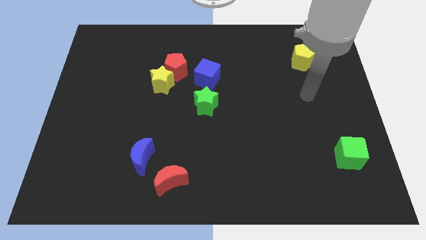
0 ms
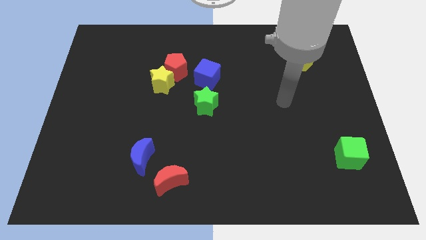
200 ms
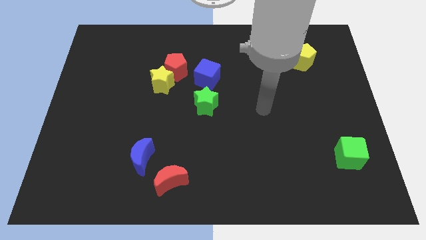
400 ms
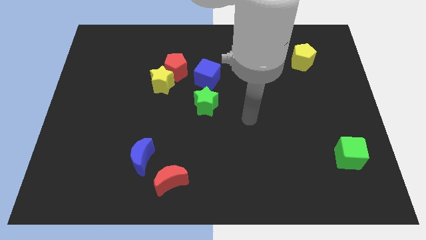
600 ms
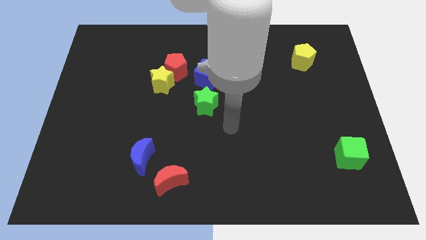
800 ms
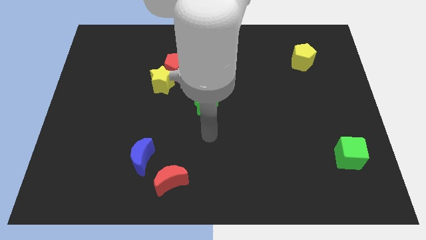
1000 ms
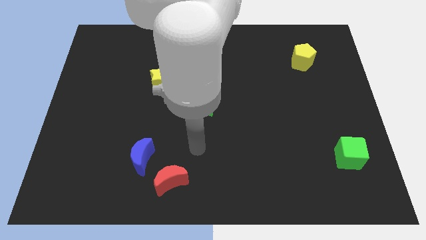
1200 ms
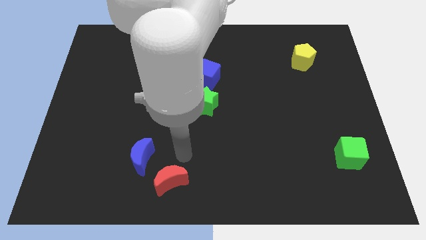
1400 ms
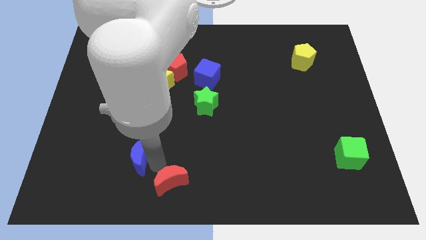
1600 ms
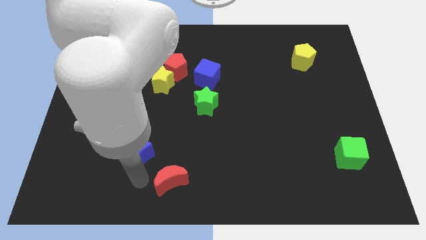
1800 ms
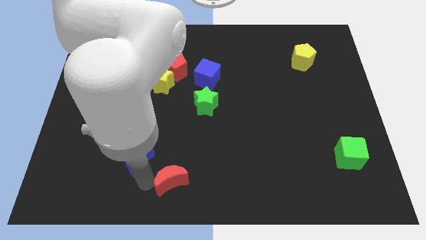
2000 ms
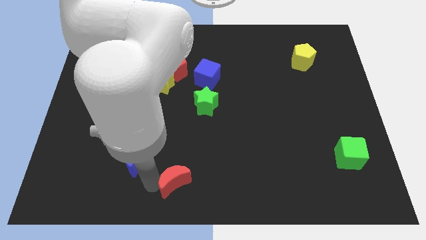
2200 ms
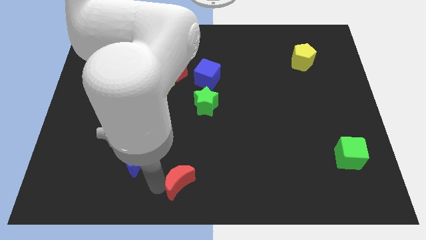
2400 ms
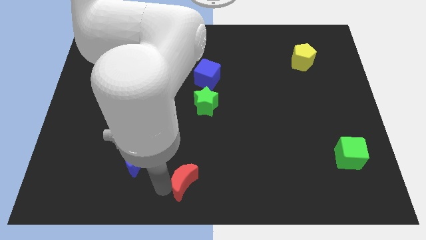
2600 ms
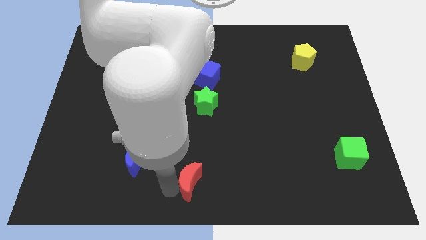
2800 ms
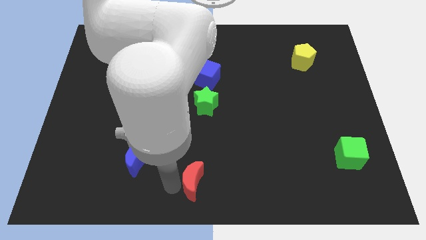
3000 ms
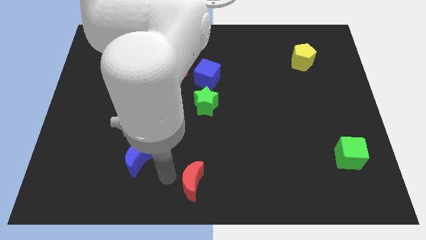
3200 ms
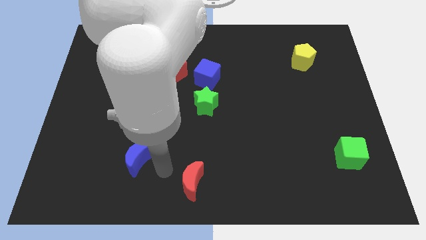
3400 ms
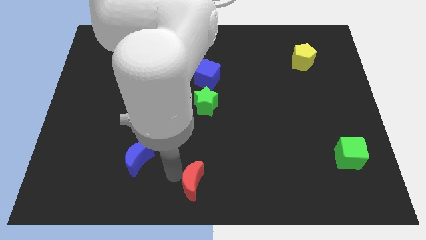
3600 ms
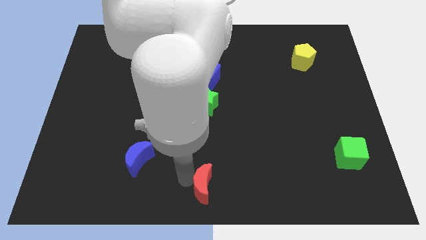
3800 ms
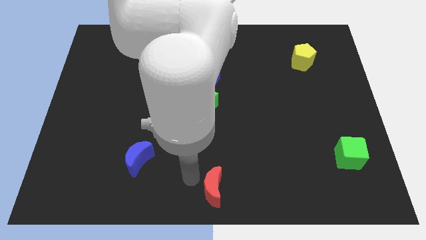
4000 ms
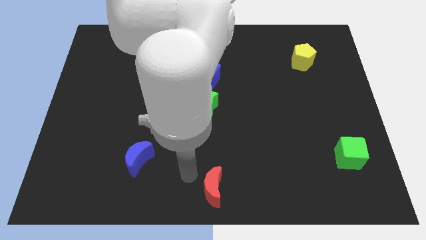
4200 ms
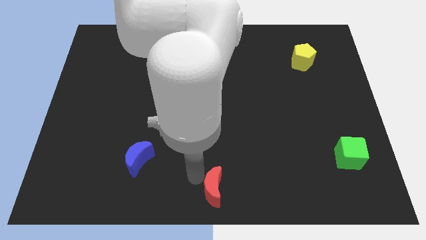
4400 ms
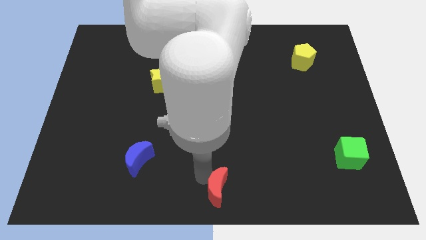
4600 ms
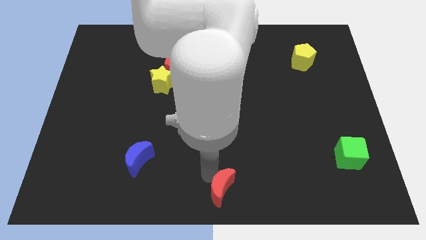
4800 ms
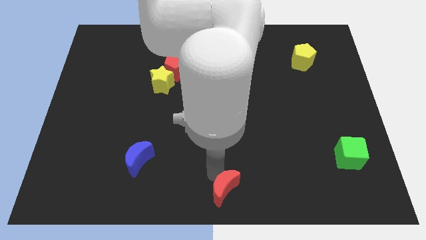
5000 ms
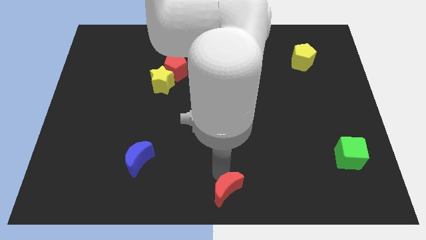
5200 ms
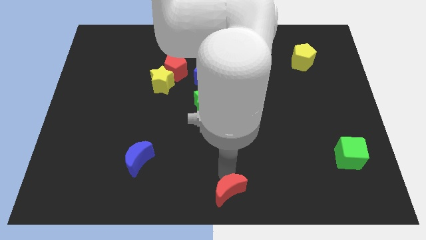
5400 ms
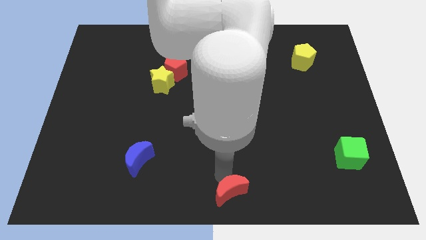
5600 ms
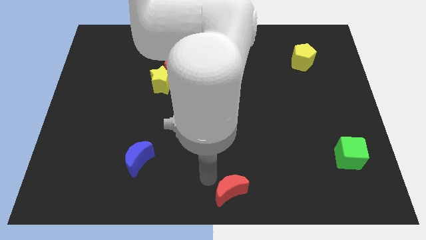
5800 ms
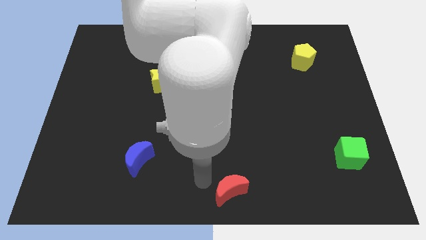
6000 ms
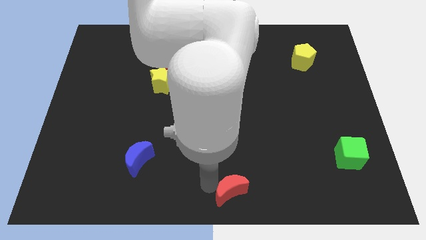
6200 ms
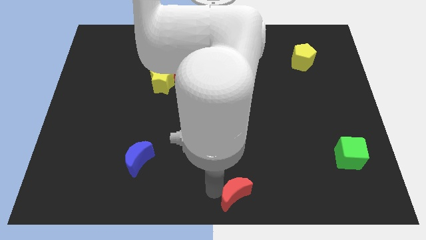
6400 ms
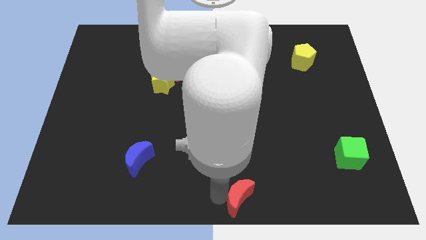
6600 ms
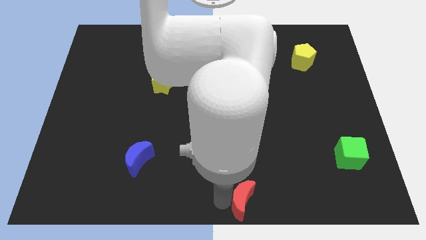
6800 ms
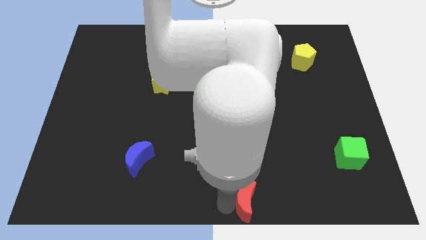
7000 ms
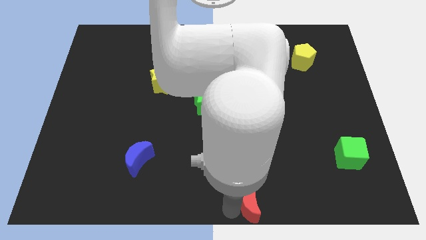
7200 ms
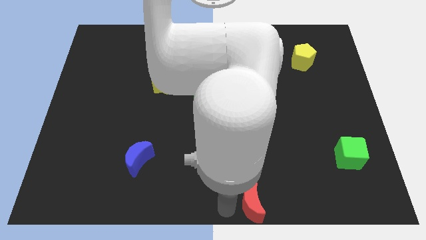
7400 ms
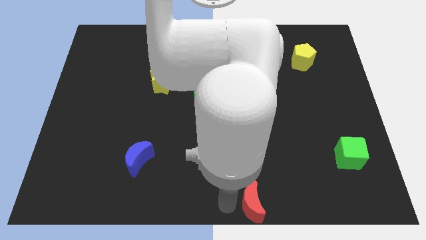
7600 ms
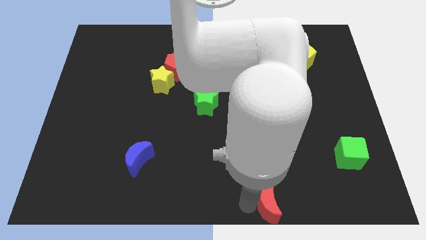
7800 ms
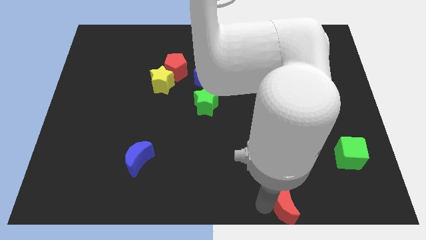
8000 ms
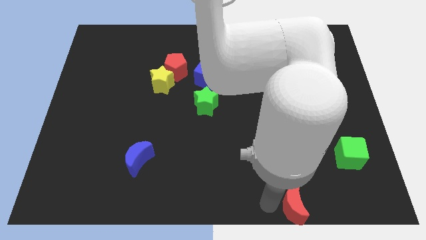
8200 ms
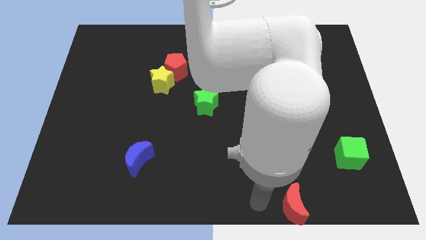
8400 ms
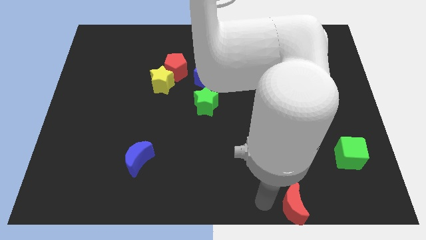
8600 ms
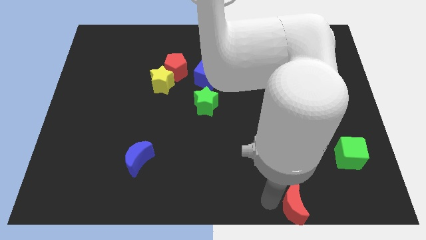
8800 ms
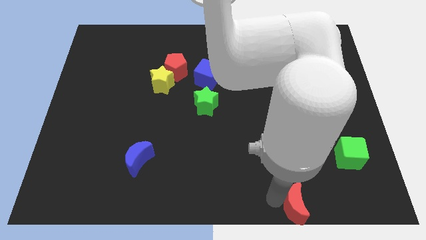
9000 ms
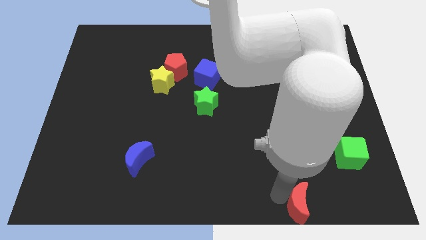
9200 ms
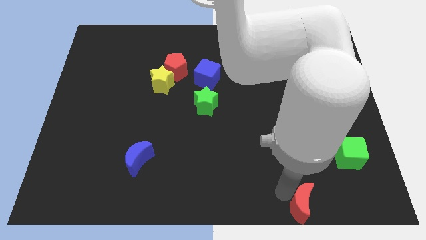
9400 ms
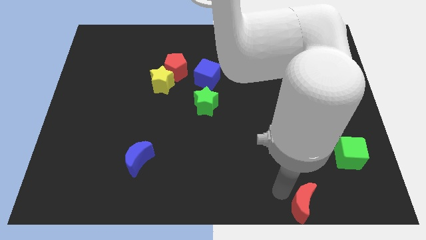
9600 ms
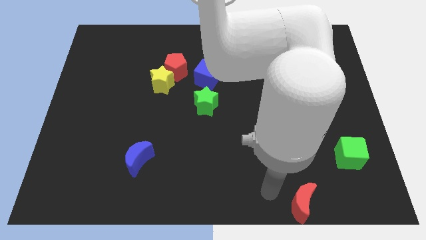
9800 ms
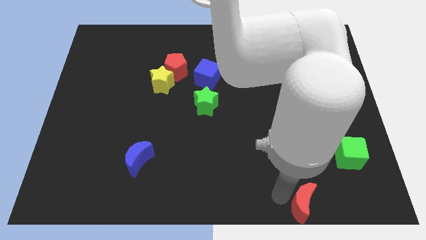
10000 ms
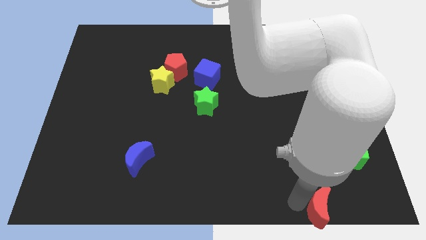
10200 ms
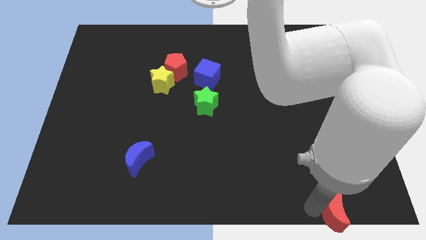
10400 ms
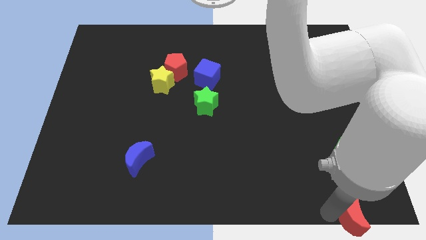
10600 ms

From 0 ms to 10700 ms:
slide the red moon to the bottom right of the board

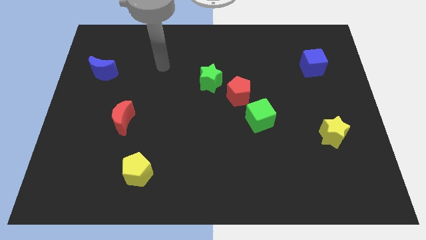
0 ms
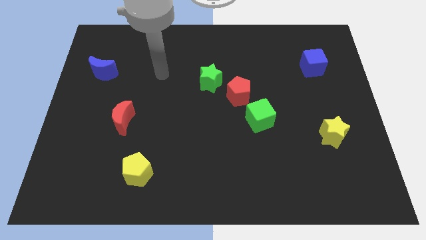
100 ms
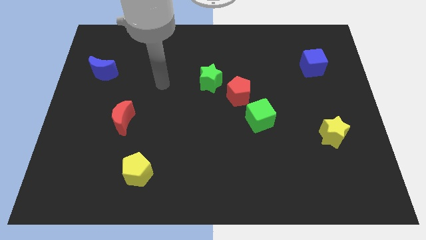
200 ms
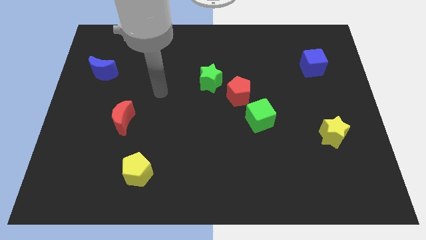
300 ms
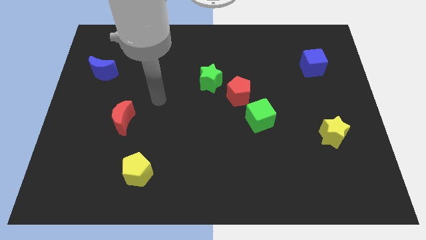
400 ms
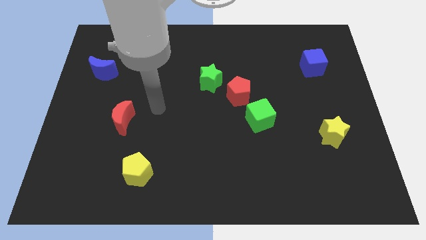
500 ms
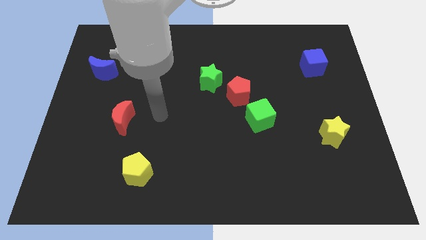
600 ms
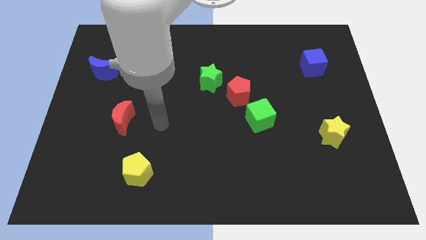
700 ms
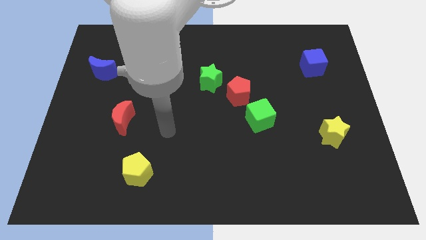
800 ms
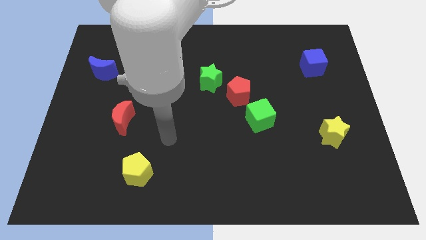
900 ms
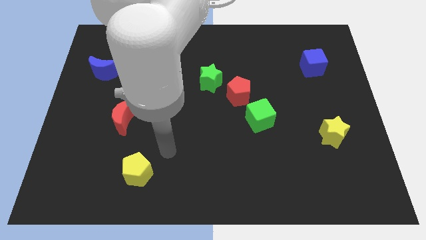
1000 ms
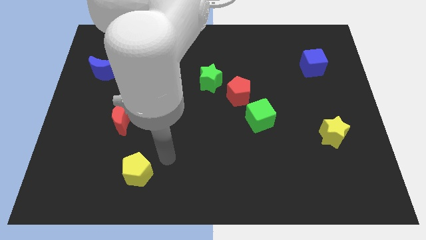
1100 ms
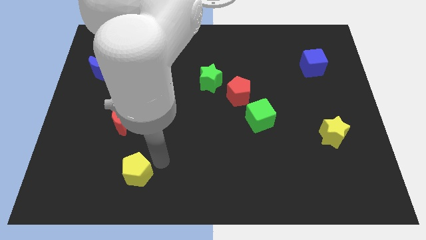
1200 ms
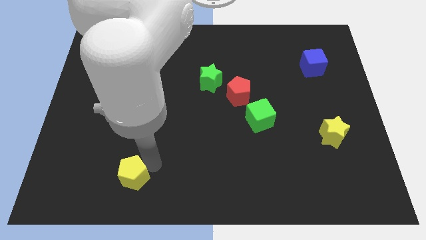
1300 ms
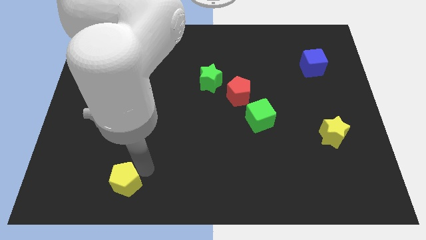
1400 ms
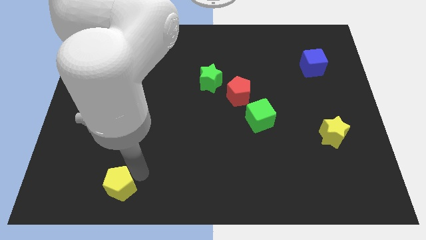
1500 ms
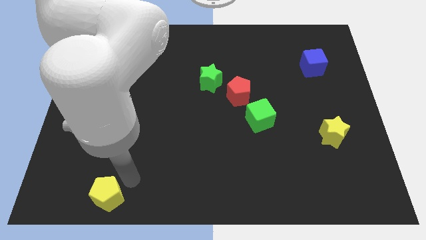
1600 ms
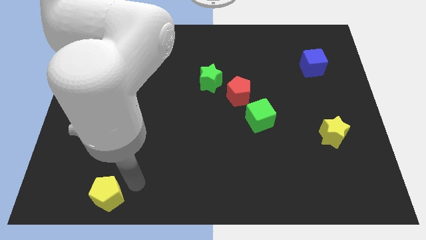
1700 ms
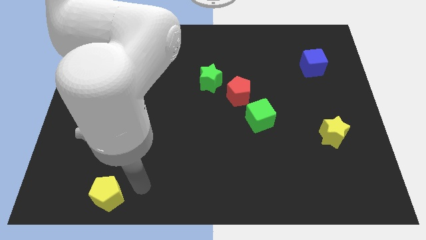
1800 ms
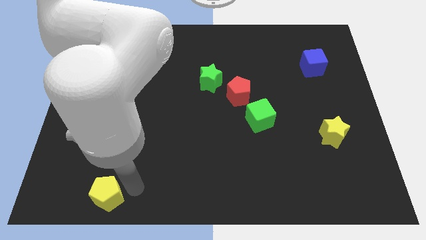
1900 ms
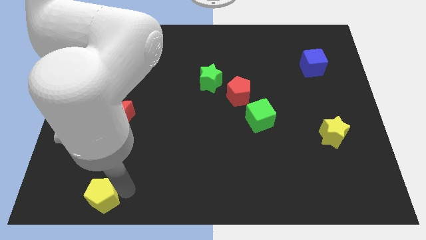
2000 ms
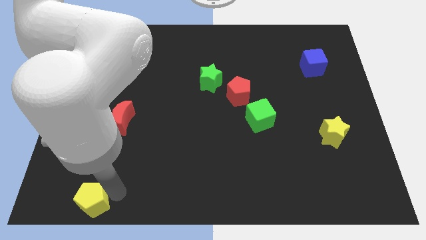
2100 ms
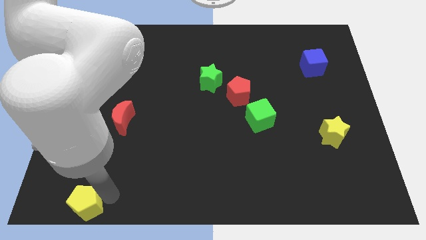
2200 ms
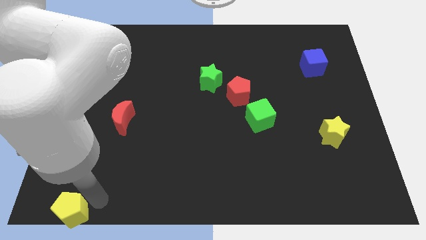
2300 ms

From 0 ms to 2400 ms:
push the yellow pentagon to the bottom left
